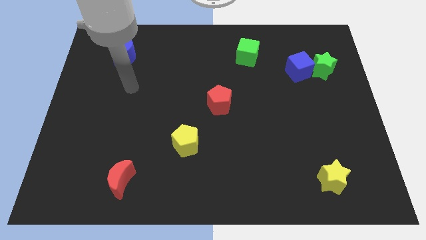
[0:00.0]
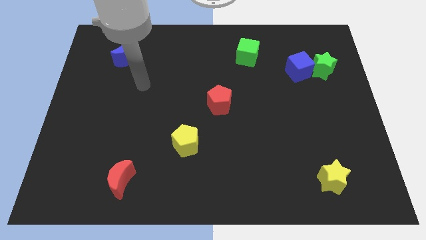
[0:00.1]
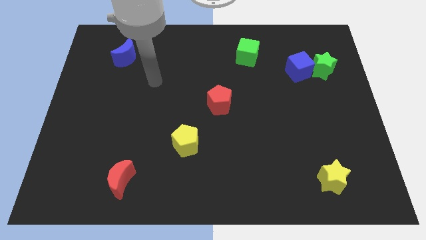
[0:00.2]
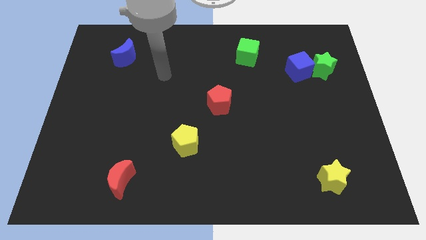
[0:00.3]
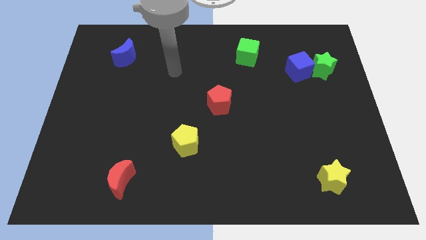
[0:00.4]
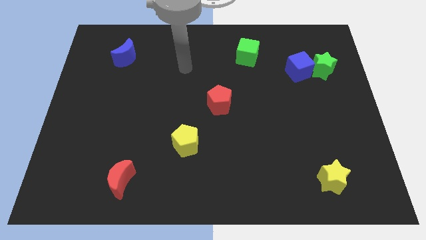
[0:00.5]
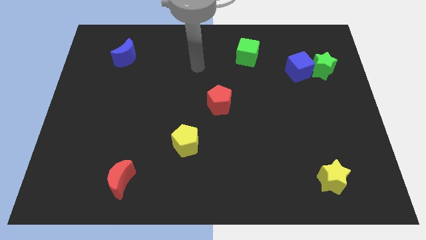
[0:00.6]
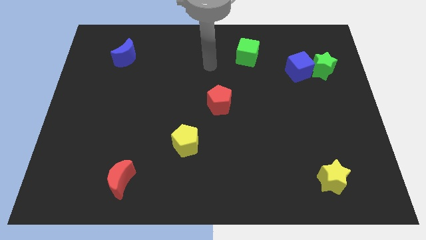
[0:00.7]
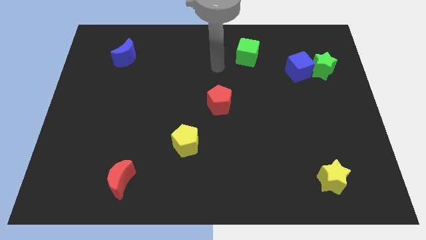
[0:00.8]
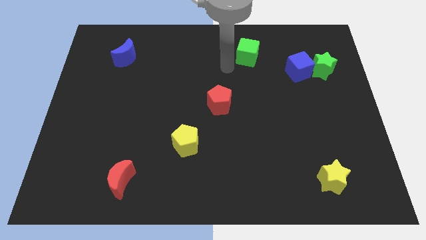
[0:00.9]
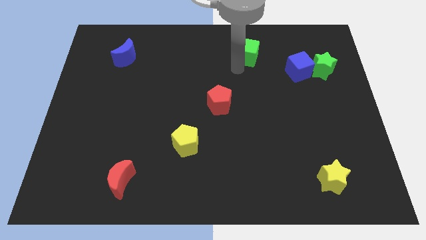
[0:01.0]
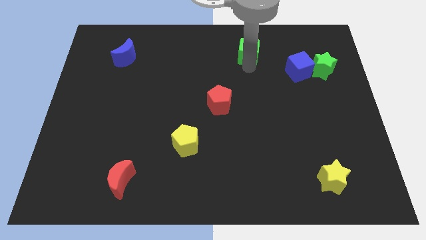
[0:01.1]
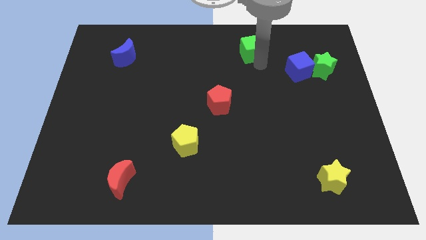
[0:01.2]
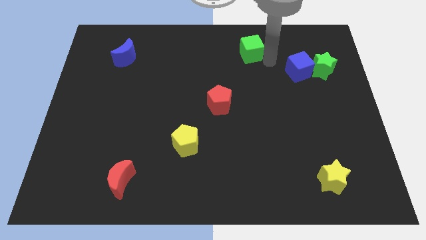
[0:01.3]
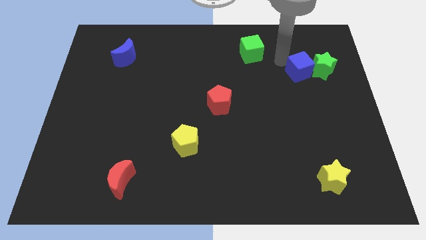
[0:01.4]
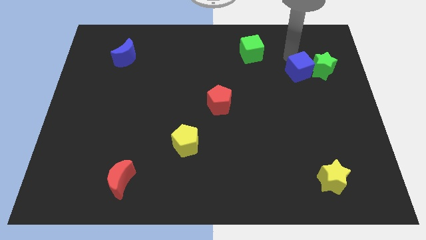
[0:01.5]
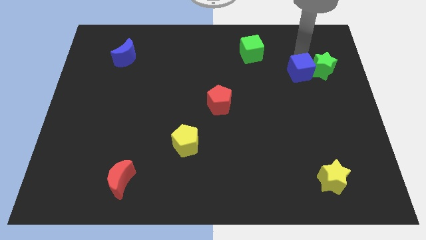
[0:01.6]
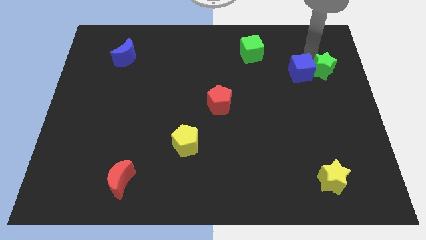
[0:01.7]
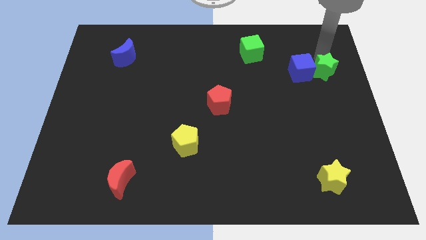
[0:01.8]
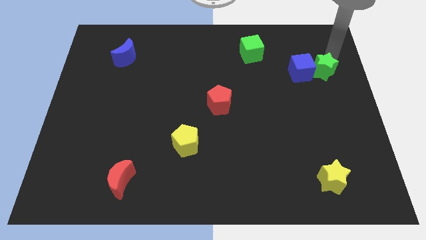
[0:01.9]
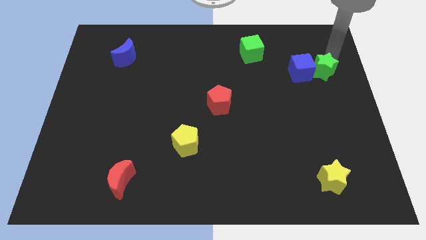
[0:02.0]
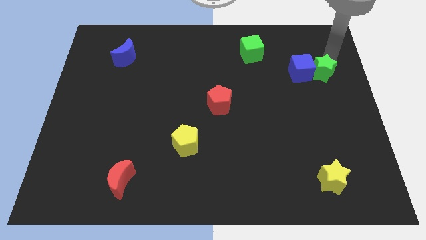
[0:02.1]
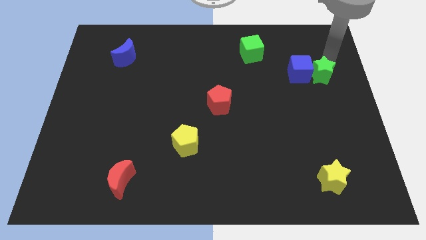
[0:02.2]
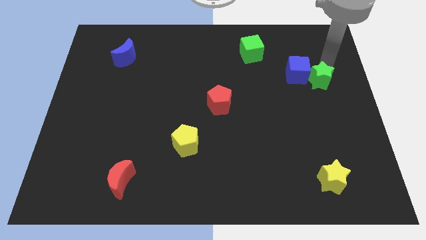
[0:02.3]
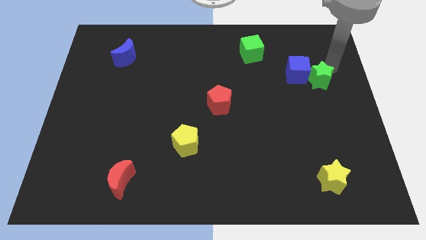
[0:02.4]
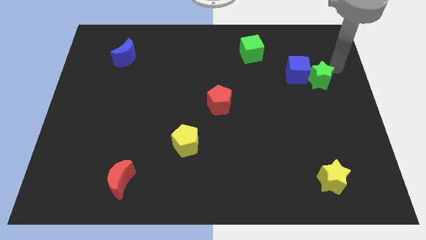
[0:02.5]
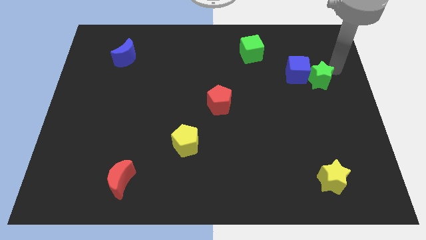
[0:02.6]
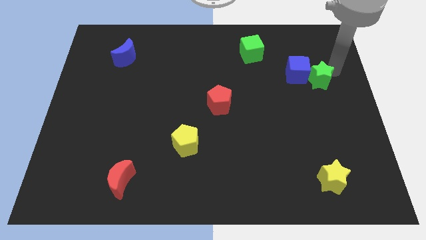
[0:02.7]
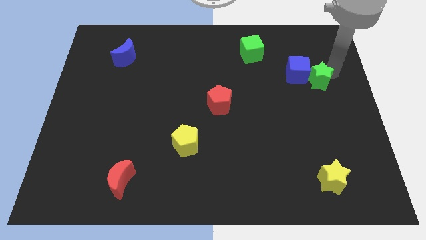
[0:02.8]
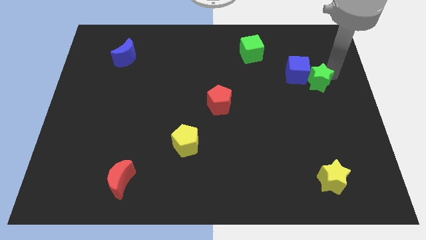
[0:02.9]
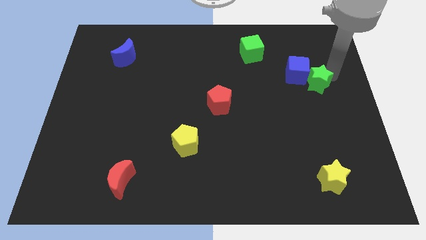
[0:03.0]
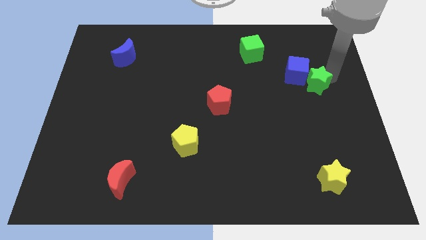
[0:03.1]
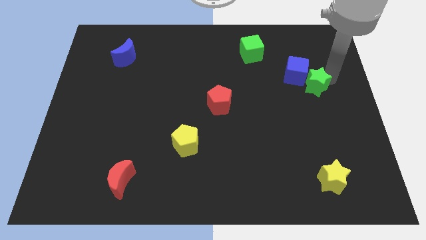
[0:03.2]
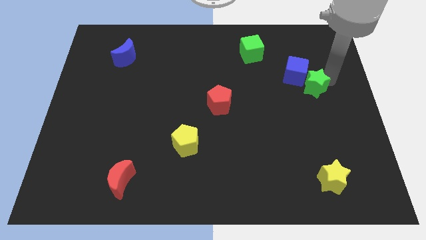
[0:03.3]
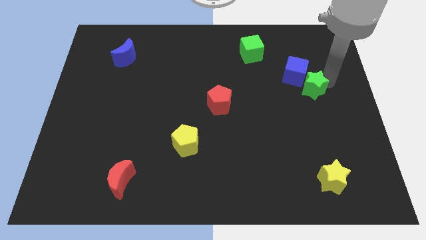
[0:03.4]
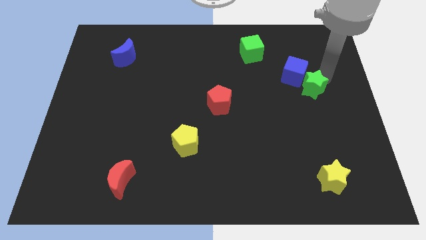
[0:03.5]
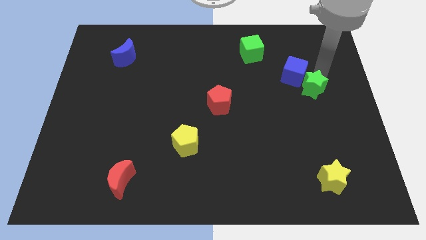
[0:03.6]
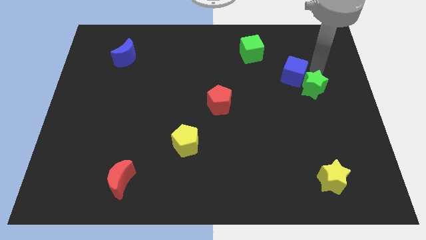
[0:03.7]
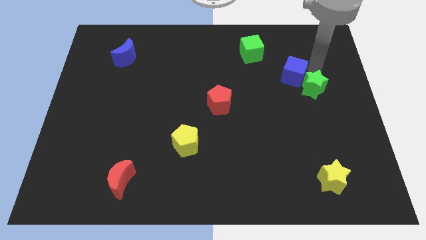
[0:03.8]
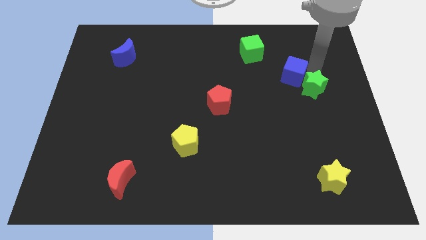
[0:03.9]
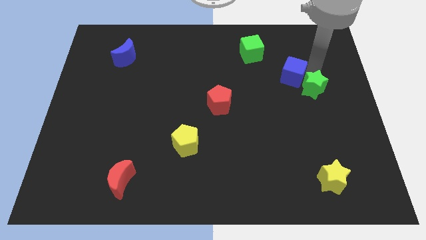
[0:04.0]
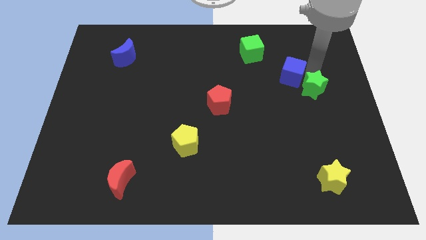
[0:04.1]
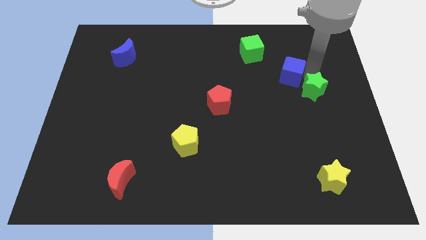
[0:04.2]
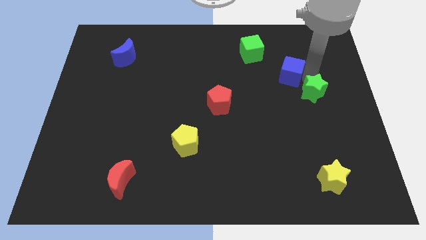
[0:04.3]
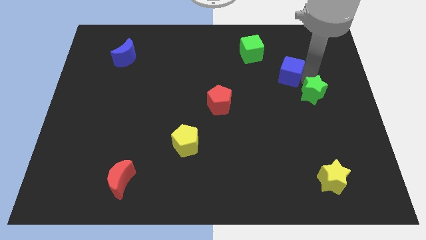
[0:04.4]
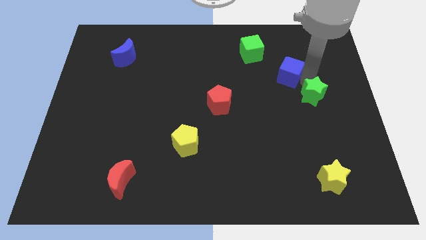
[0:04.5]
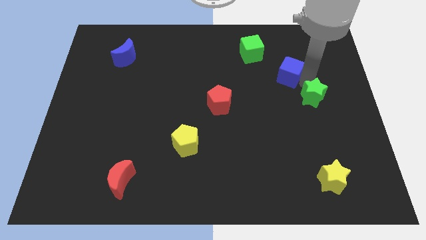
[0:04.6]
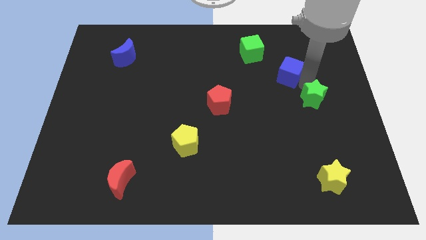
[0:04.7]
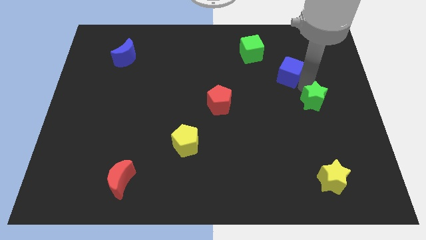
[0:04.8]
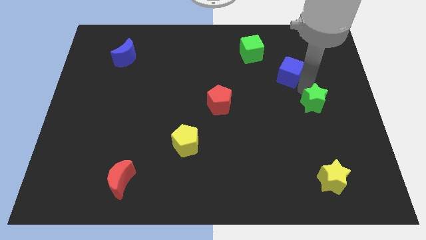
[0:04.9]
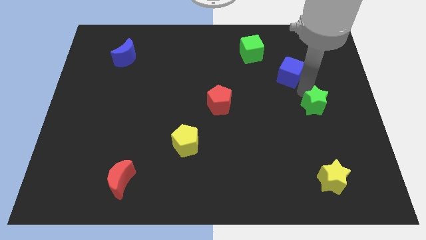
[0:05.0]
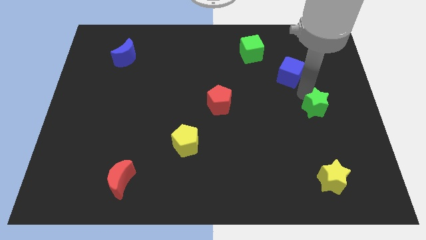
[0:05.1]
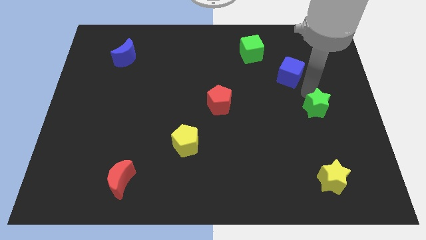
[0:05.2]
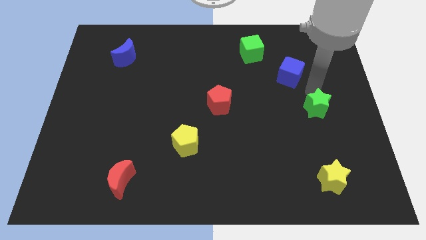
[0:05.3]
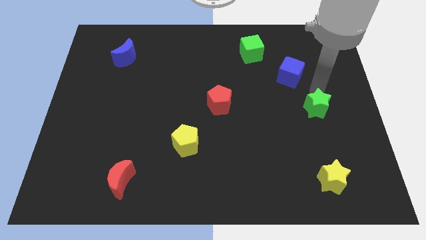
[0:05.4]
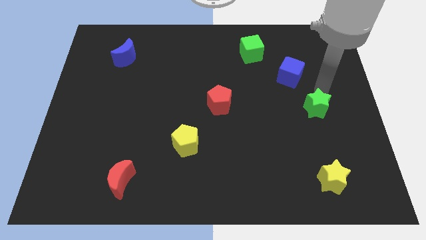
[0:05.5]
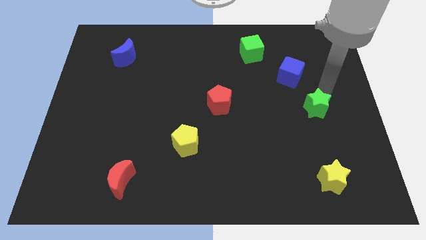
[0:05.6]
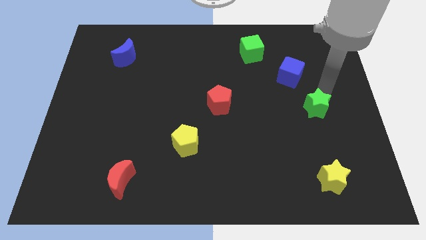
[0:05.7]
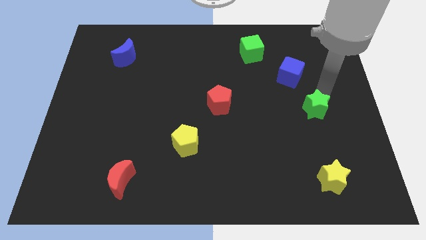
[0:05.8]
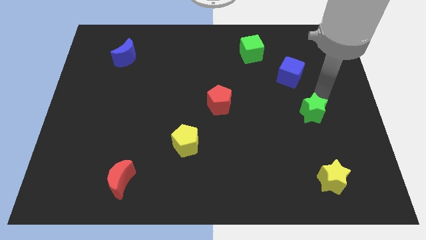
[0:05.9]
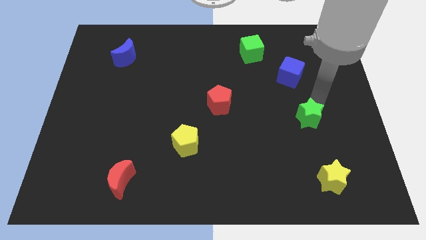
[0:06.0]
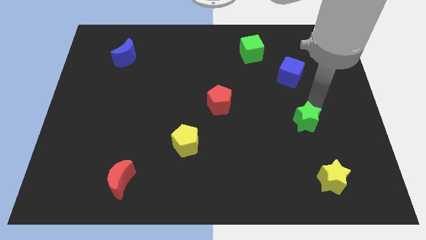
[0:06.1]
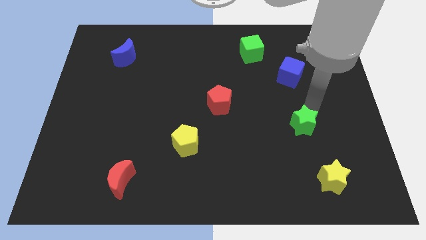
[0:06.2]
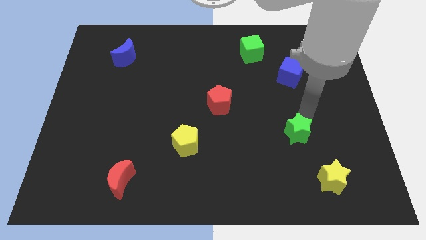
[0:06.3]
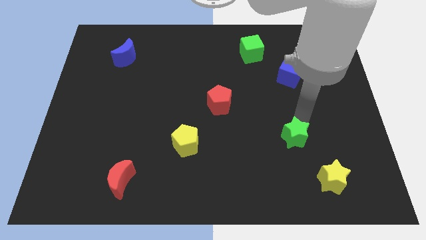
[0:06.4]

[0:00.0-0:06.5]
slide the green star to the top left of the yellow star

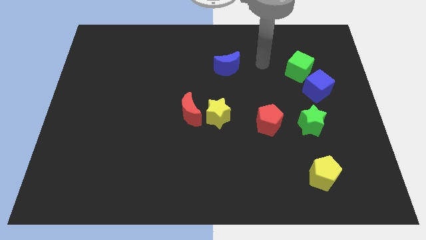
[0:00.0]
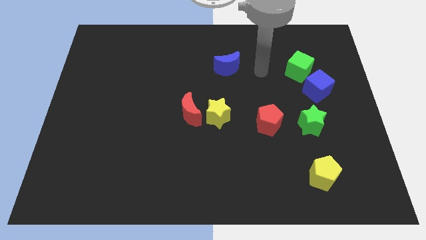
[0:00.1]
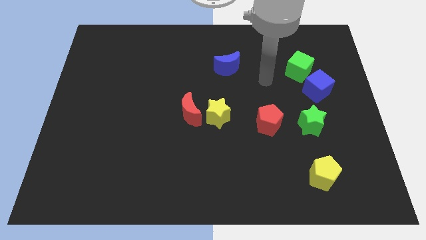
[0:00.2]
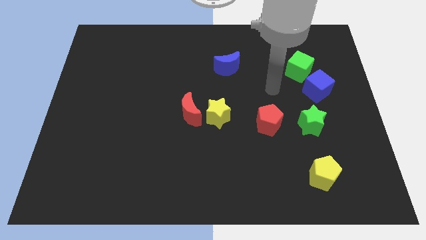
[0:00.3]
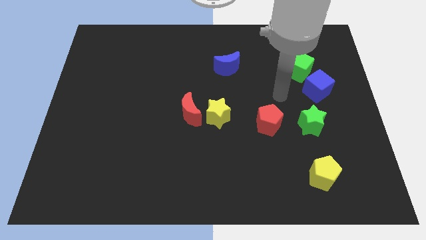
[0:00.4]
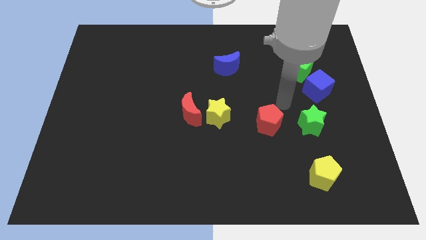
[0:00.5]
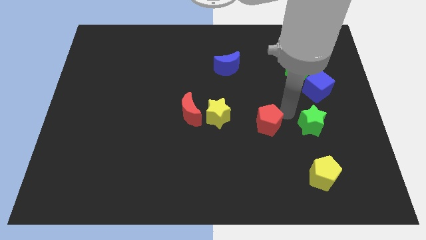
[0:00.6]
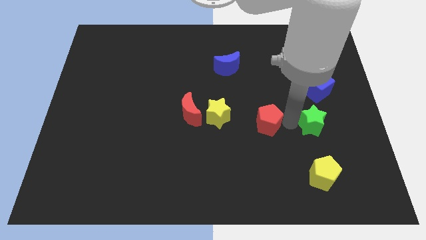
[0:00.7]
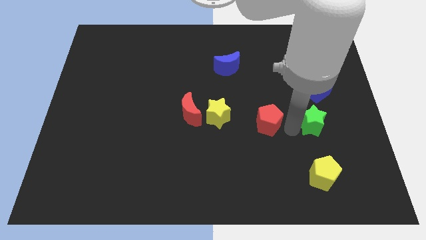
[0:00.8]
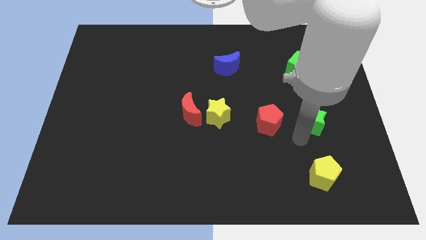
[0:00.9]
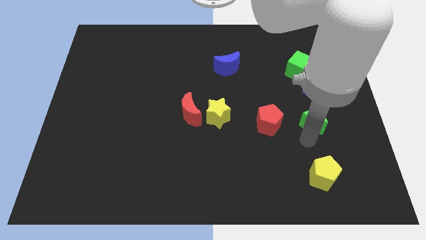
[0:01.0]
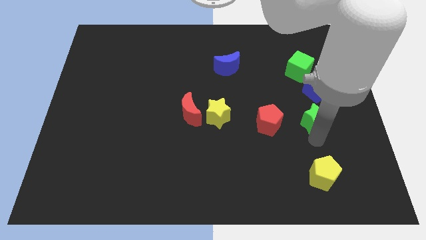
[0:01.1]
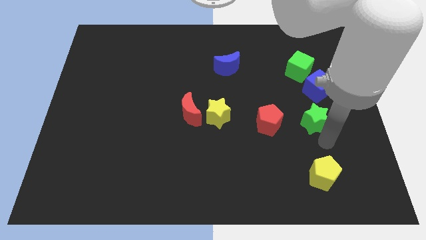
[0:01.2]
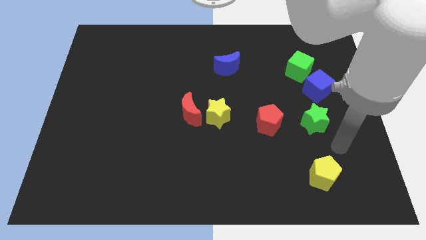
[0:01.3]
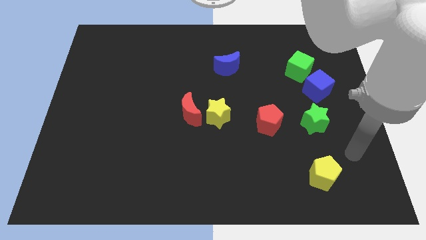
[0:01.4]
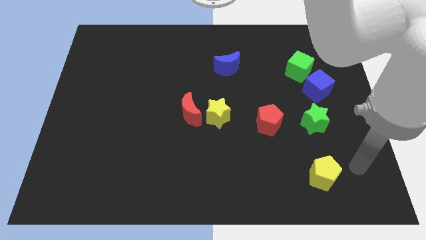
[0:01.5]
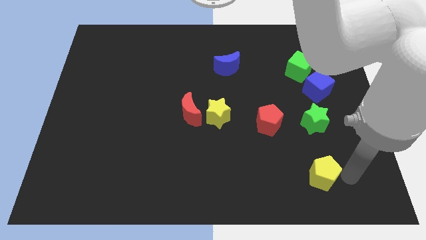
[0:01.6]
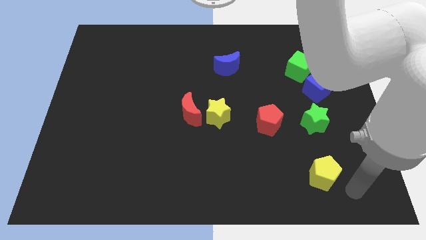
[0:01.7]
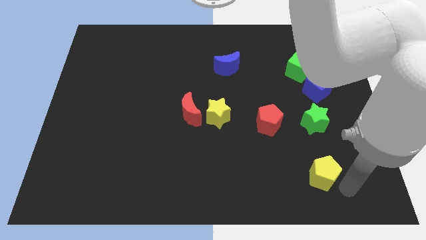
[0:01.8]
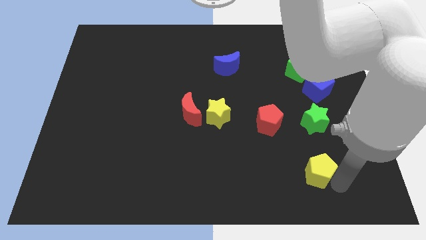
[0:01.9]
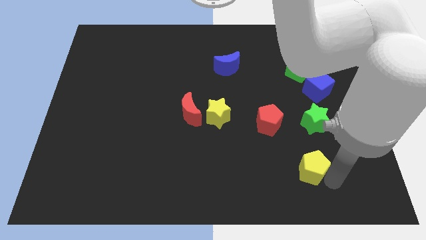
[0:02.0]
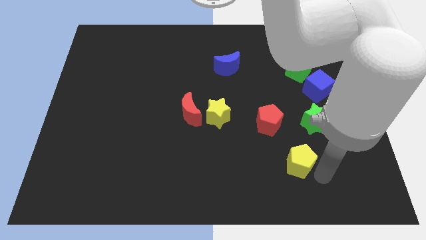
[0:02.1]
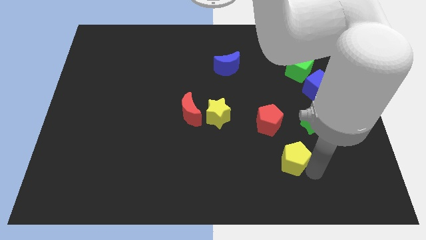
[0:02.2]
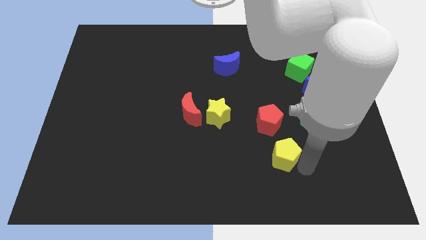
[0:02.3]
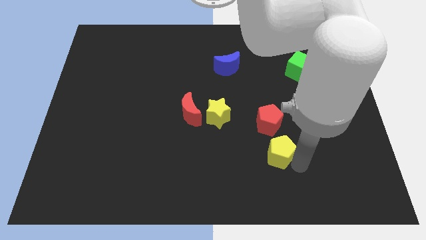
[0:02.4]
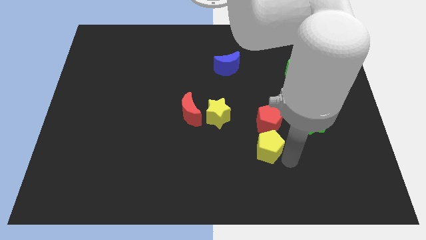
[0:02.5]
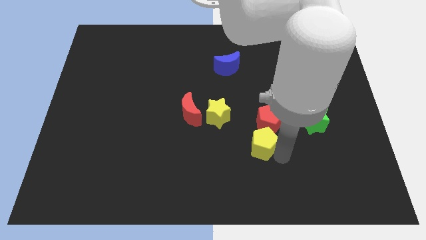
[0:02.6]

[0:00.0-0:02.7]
move the yellow pentagon to the bottom right side of the yellow star
